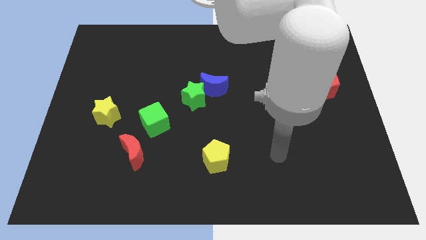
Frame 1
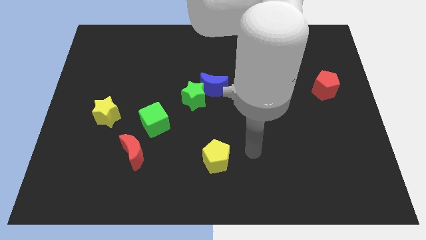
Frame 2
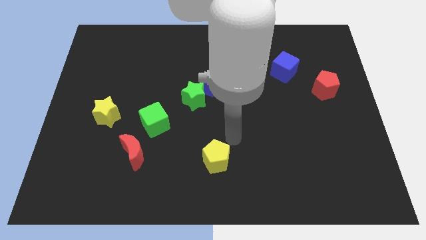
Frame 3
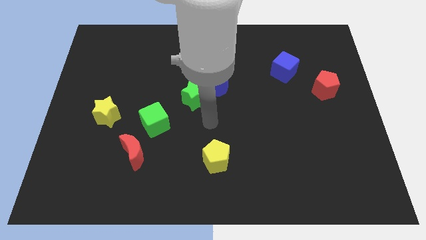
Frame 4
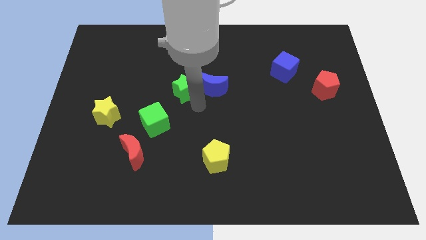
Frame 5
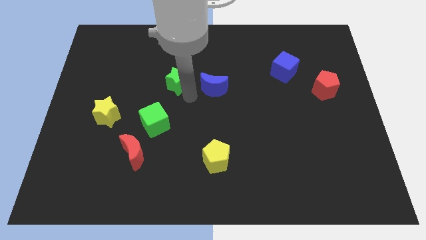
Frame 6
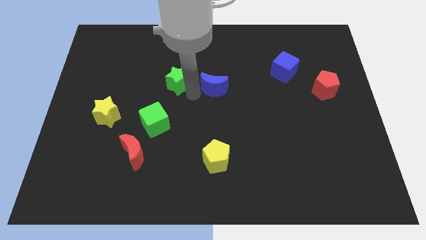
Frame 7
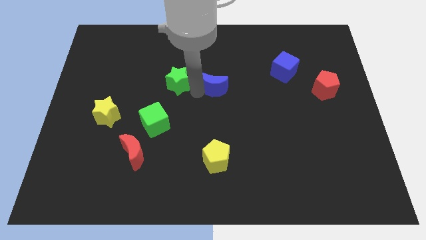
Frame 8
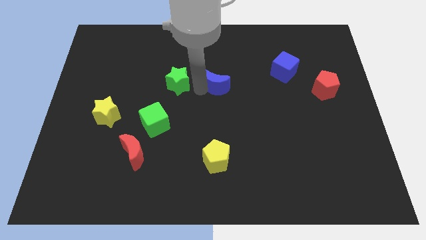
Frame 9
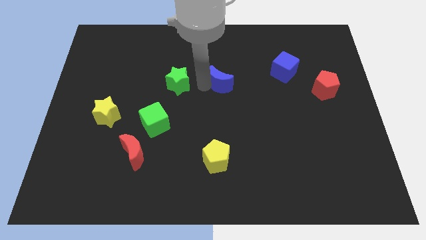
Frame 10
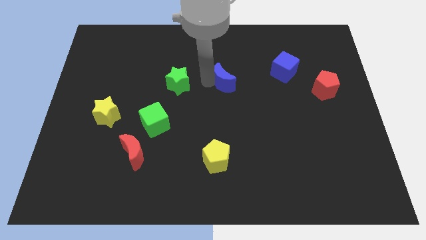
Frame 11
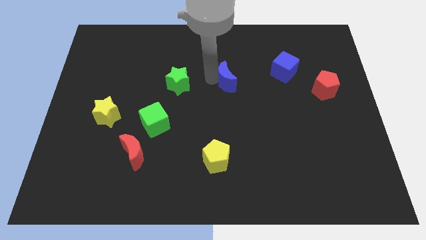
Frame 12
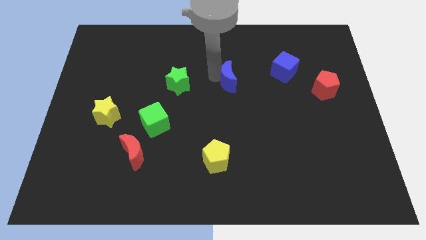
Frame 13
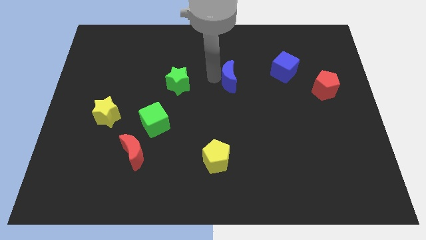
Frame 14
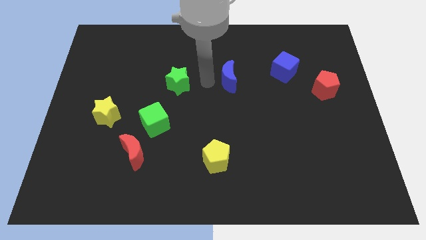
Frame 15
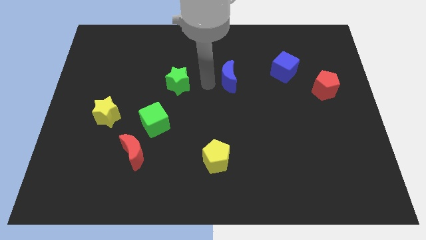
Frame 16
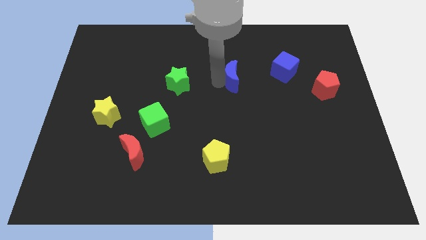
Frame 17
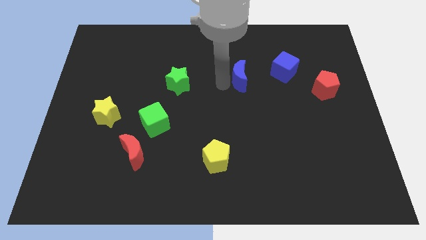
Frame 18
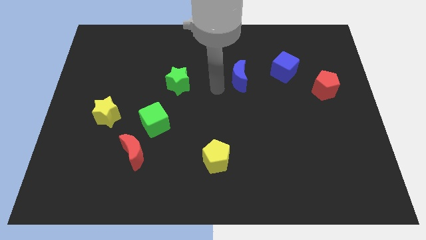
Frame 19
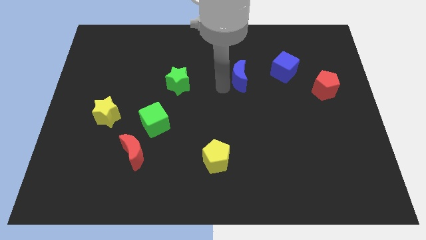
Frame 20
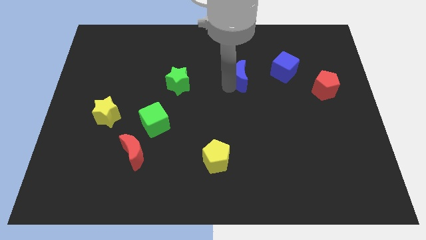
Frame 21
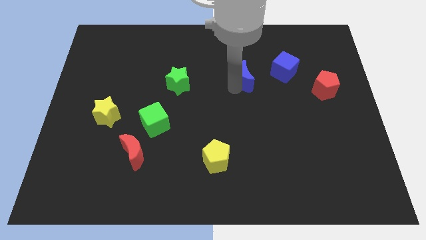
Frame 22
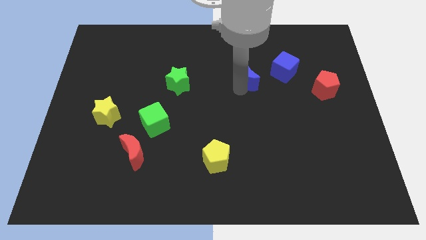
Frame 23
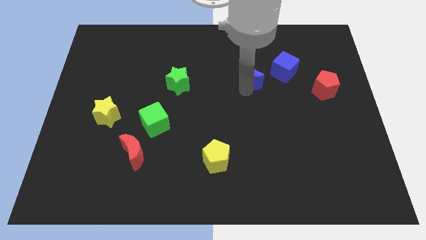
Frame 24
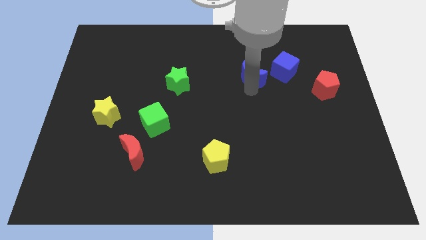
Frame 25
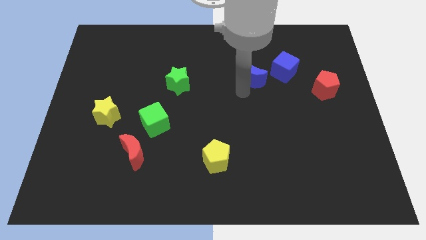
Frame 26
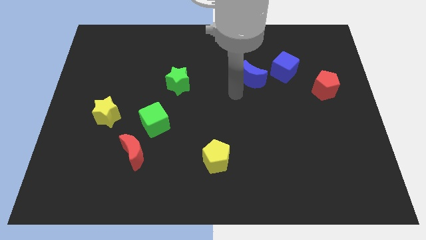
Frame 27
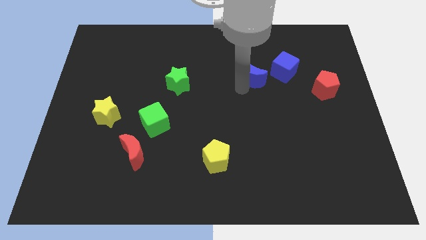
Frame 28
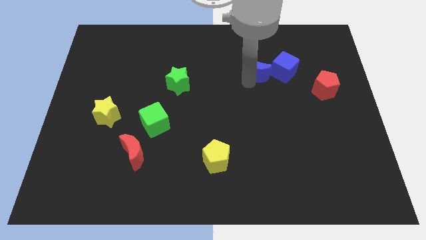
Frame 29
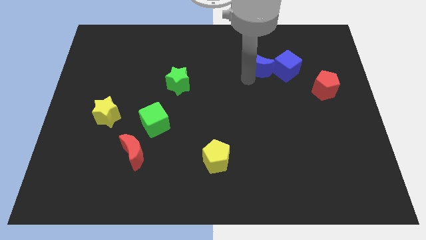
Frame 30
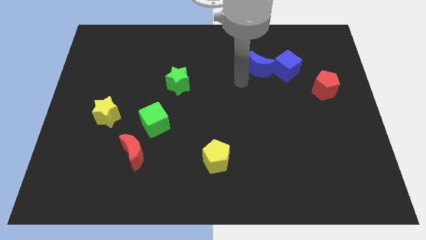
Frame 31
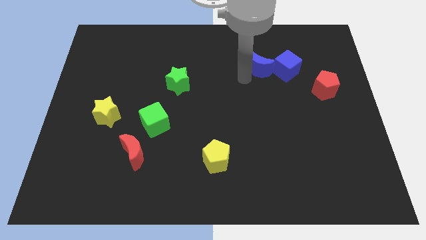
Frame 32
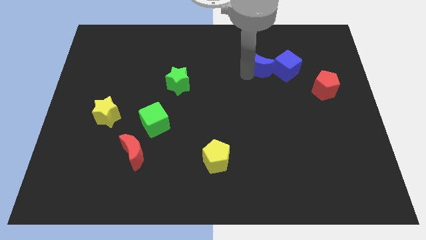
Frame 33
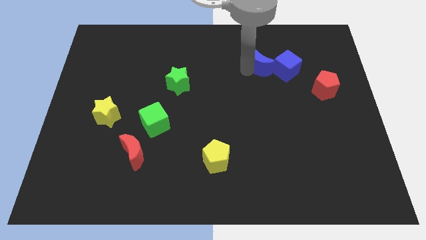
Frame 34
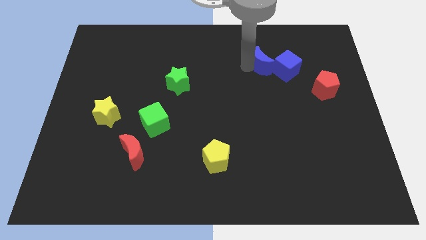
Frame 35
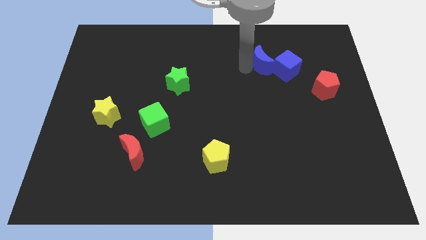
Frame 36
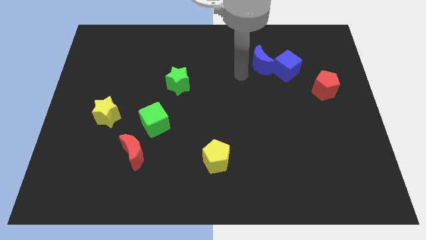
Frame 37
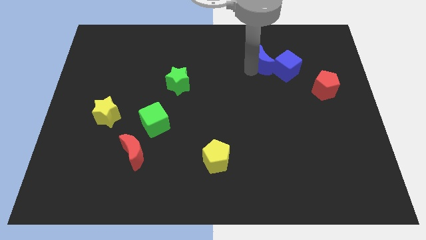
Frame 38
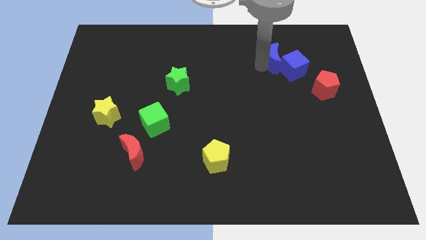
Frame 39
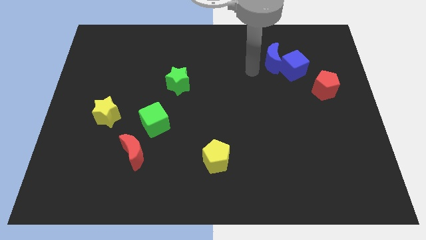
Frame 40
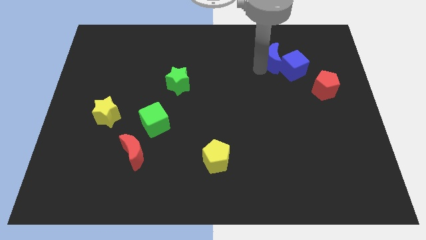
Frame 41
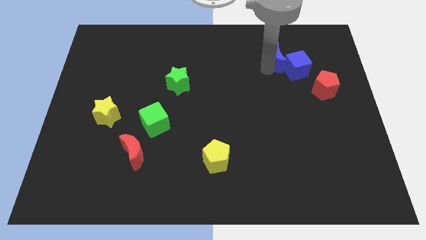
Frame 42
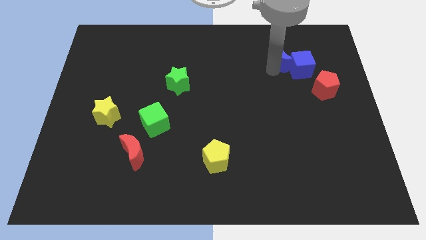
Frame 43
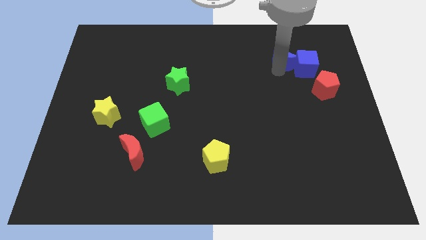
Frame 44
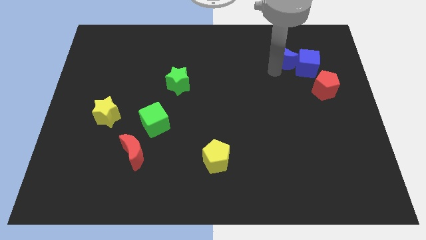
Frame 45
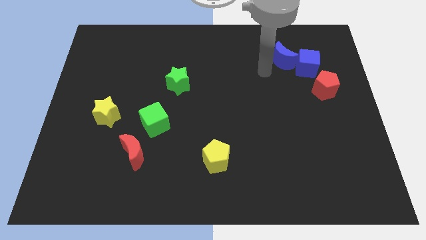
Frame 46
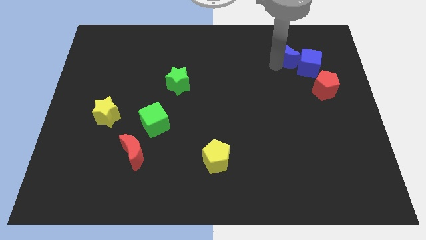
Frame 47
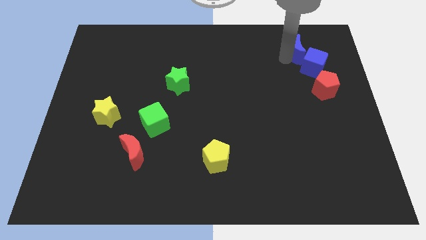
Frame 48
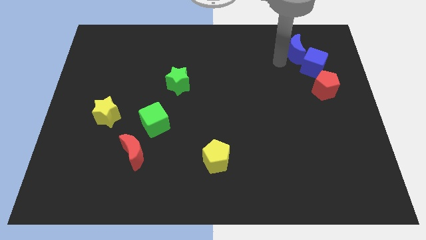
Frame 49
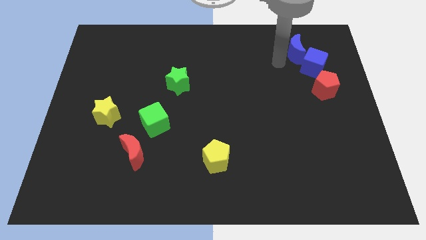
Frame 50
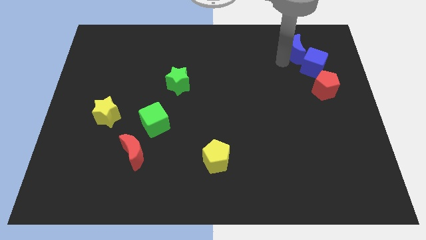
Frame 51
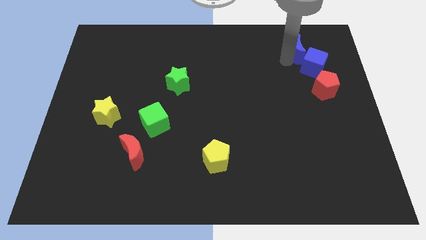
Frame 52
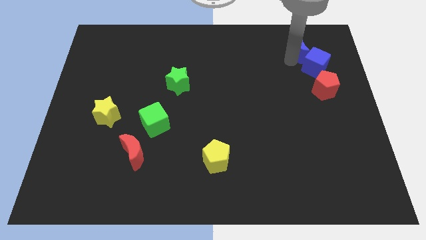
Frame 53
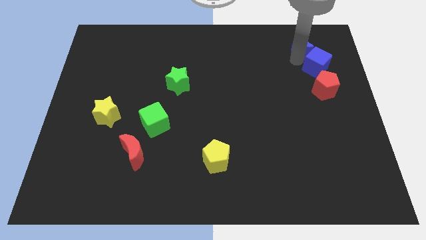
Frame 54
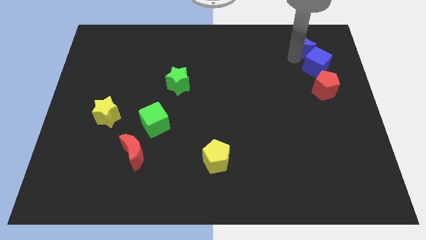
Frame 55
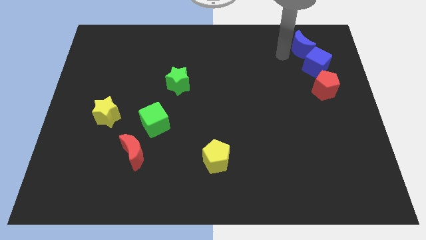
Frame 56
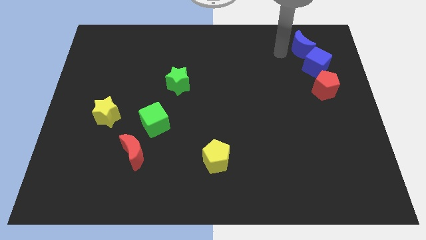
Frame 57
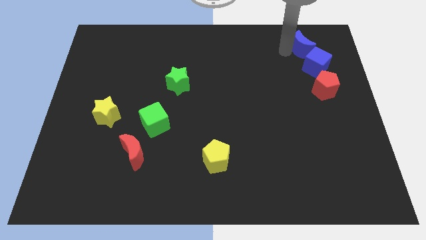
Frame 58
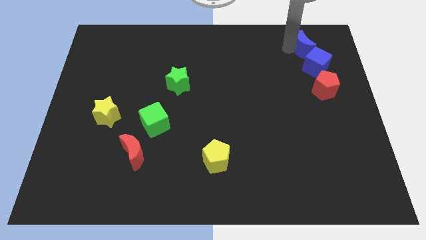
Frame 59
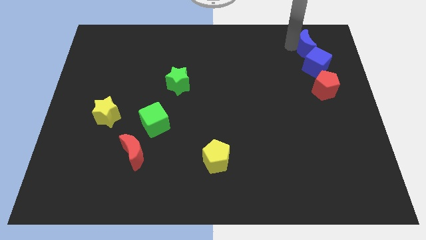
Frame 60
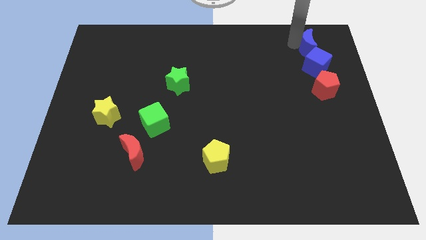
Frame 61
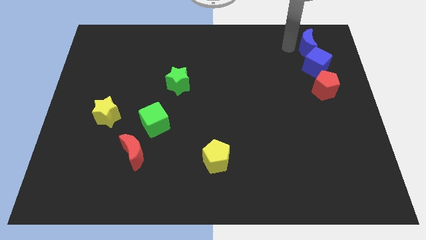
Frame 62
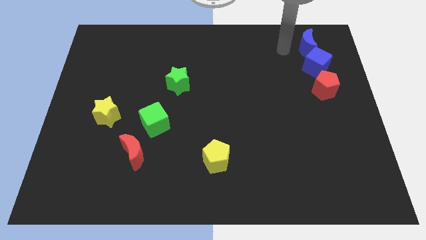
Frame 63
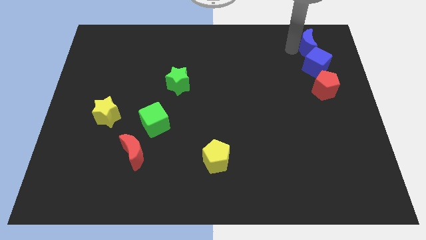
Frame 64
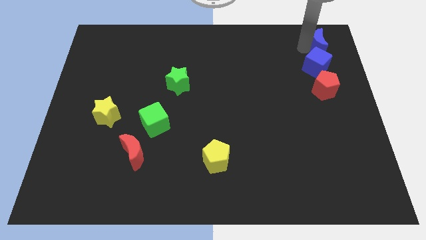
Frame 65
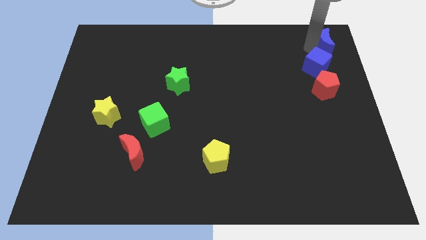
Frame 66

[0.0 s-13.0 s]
move the blue moon to the top right corner

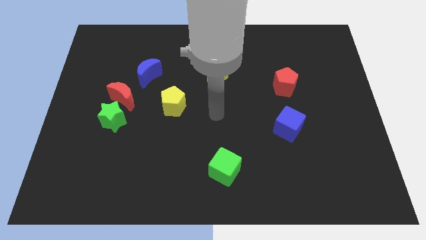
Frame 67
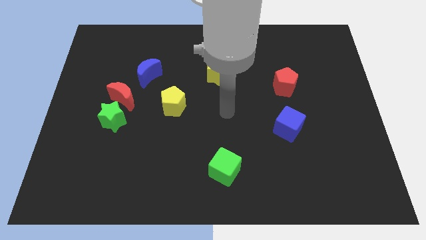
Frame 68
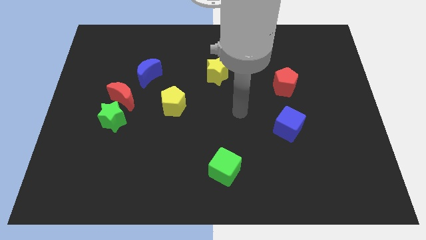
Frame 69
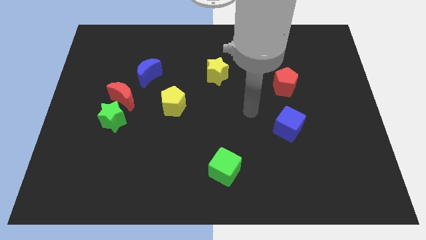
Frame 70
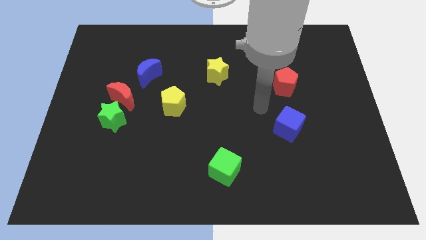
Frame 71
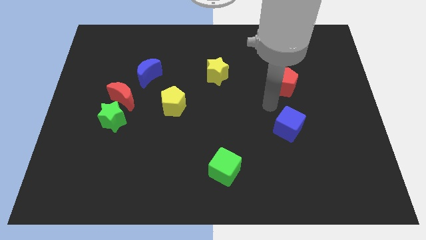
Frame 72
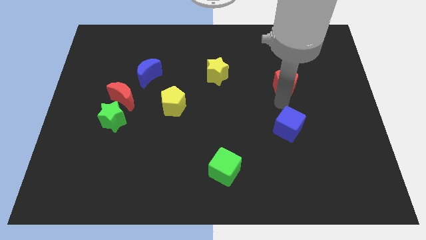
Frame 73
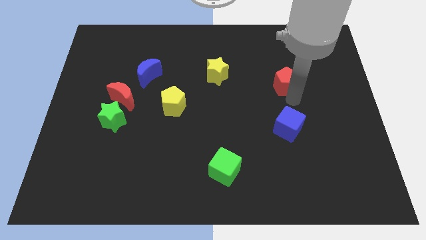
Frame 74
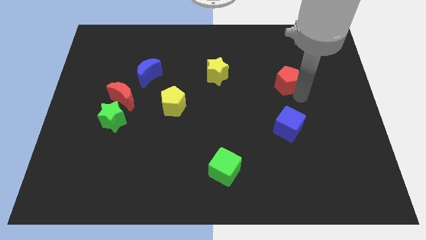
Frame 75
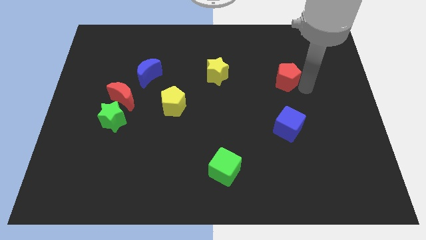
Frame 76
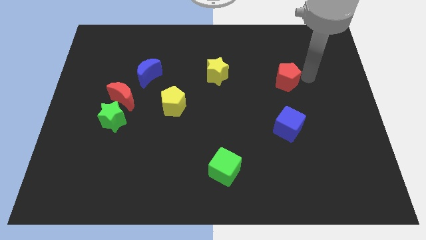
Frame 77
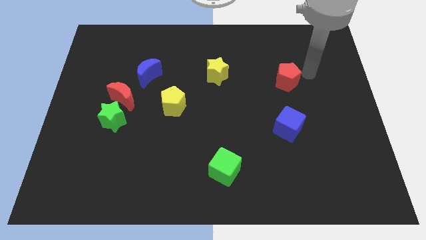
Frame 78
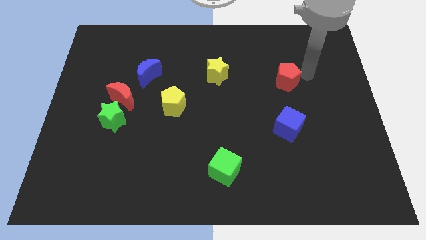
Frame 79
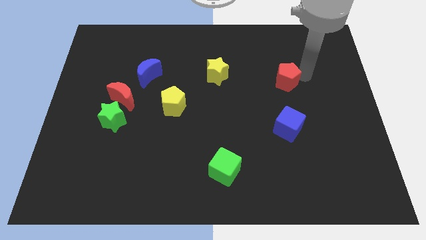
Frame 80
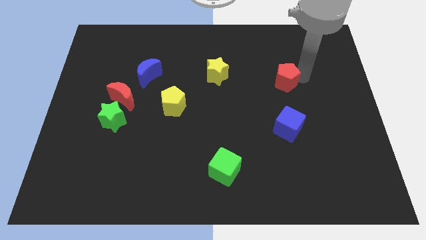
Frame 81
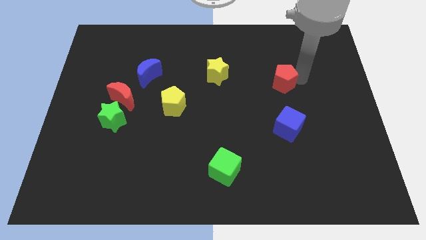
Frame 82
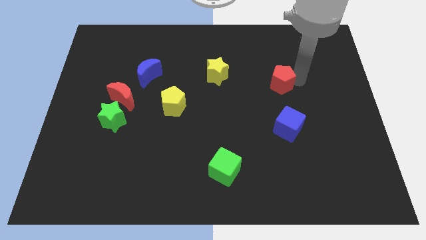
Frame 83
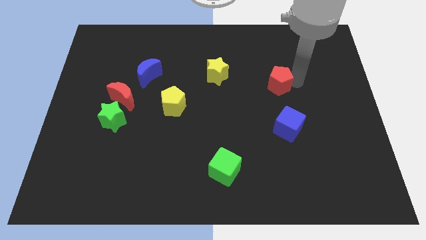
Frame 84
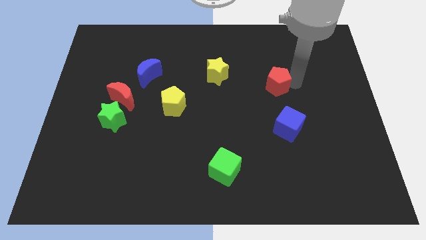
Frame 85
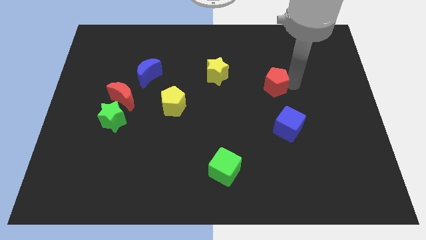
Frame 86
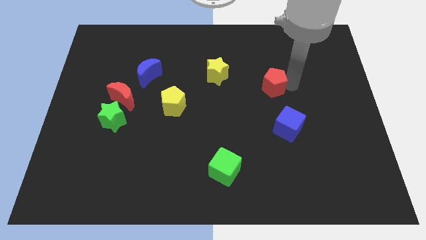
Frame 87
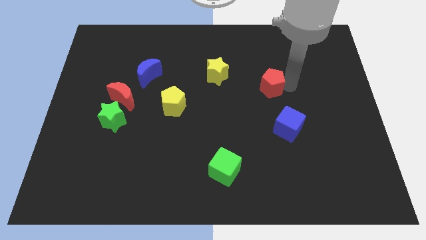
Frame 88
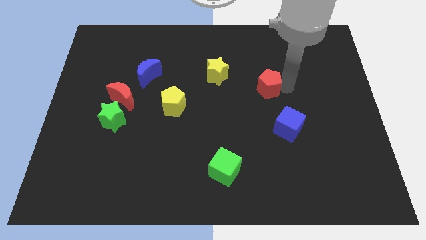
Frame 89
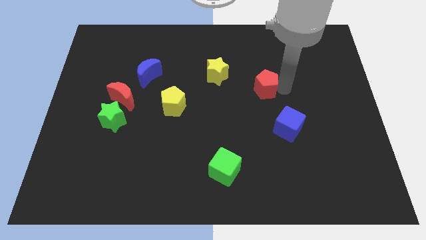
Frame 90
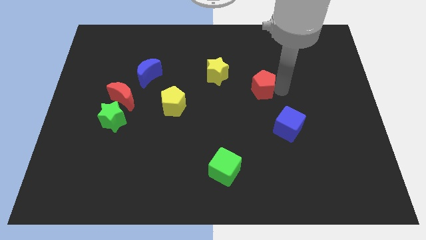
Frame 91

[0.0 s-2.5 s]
move the red pentagon to the center
